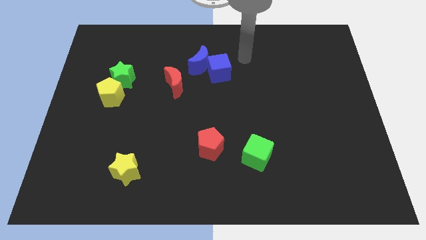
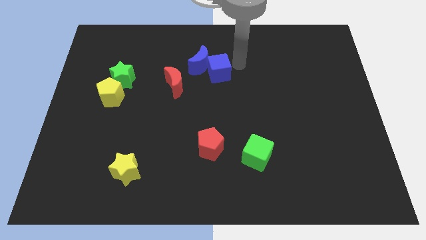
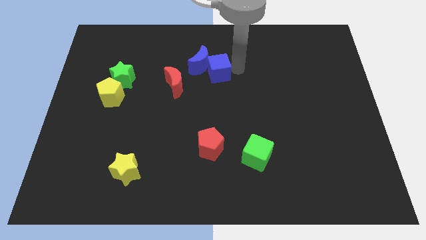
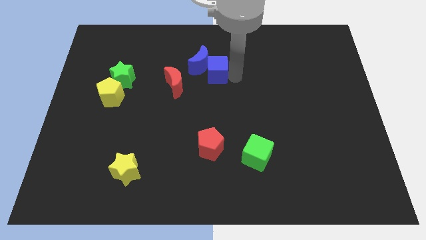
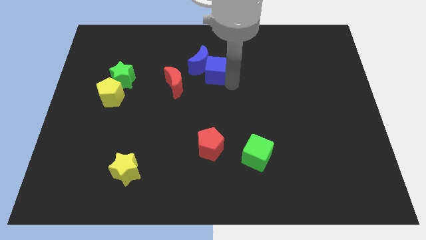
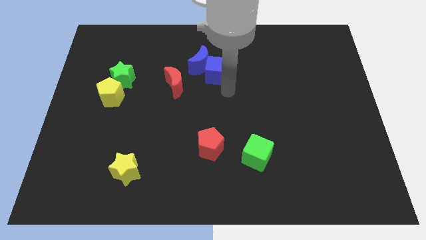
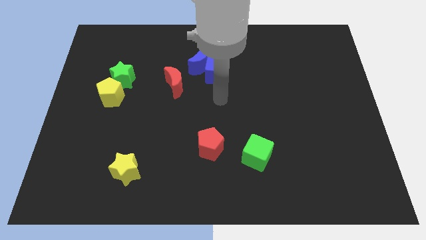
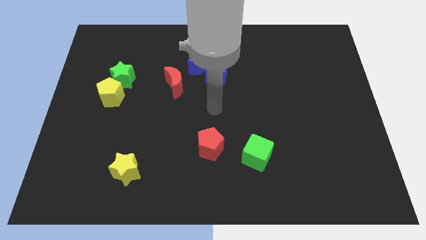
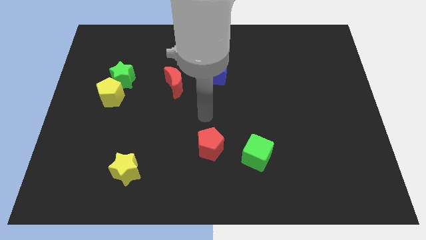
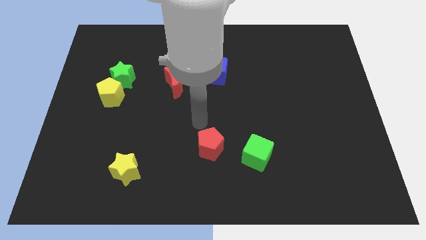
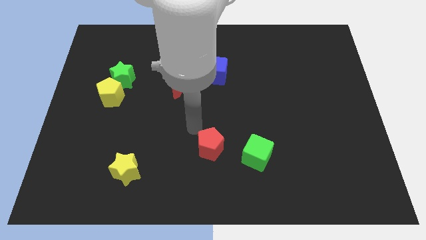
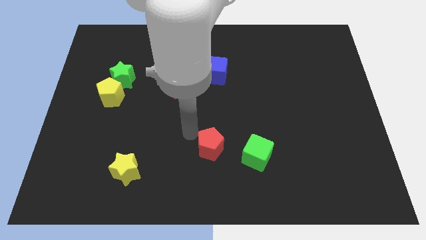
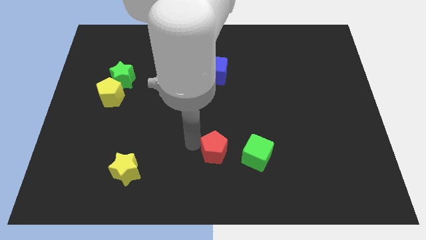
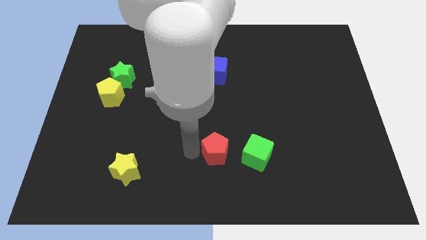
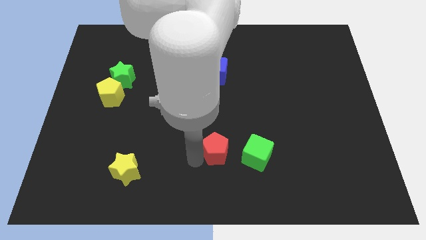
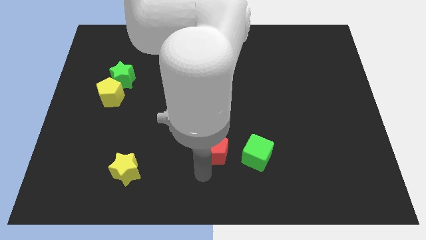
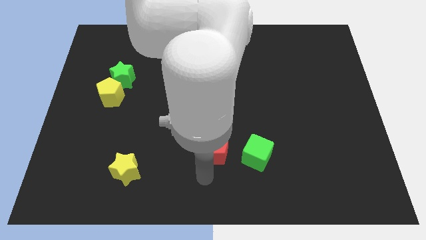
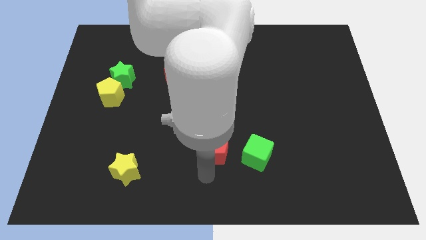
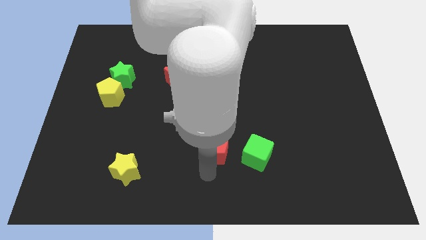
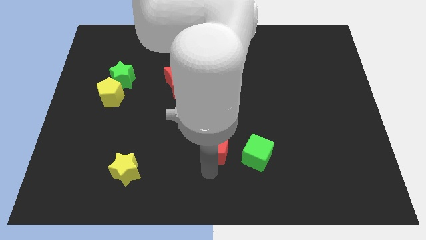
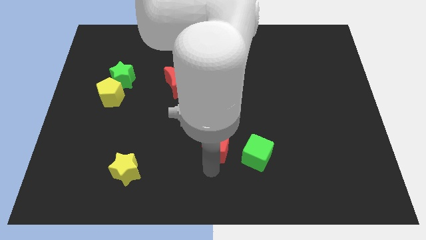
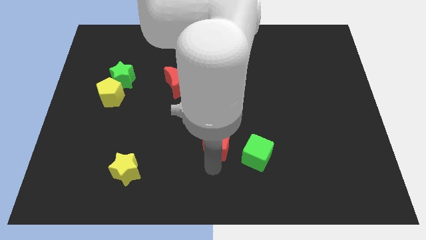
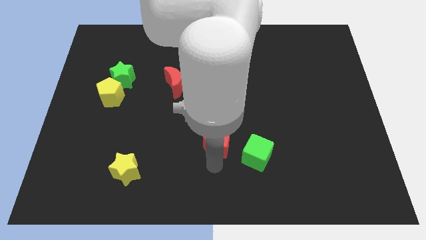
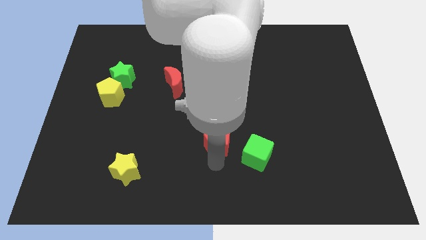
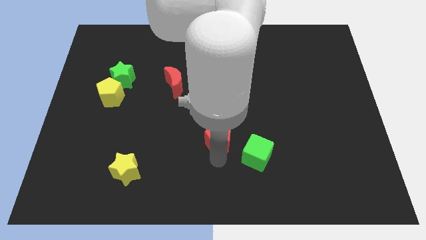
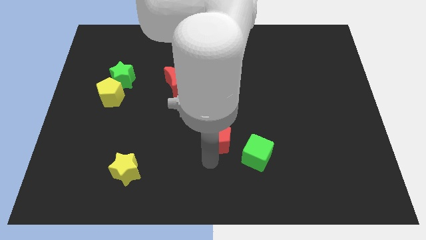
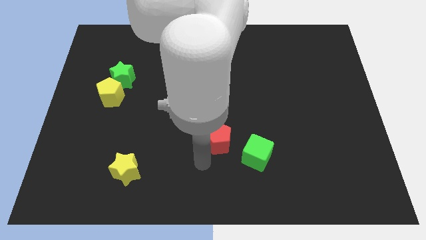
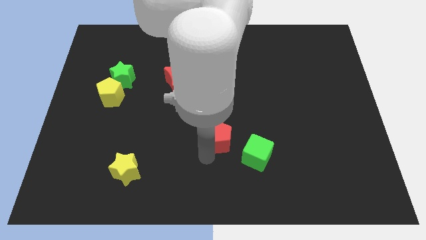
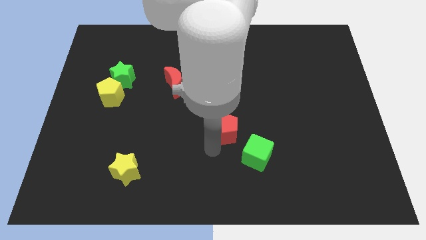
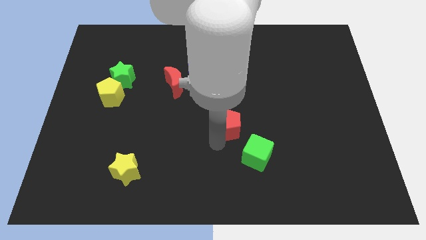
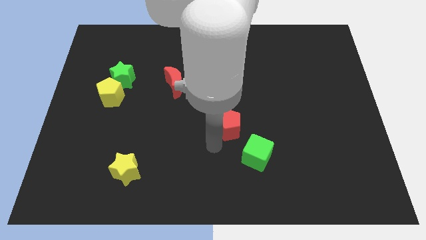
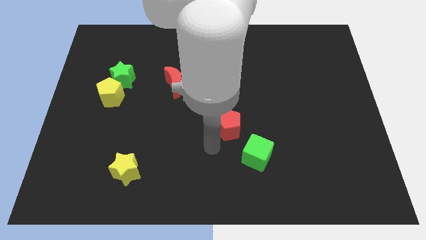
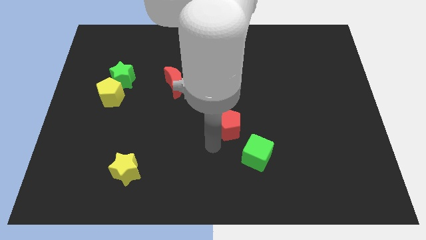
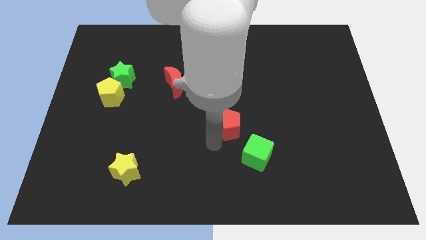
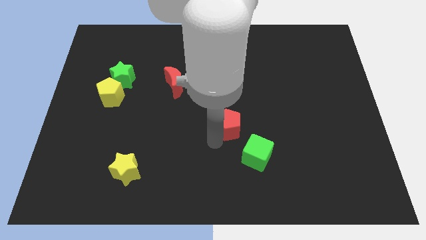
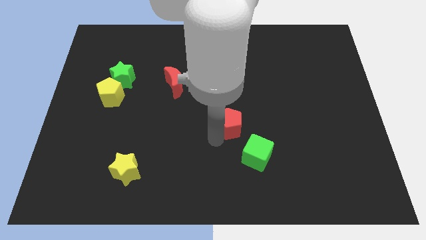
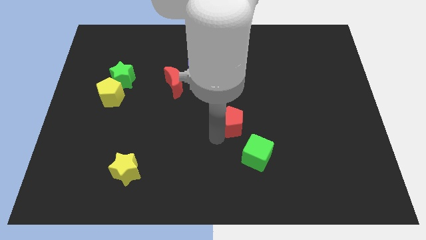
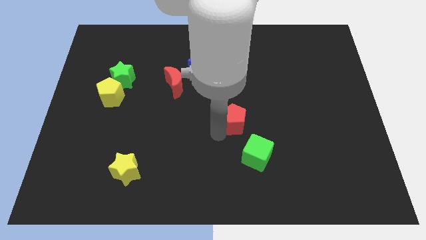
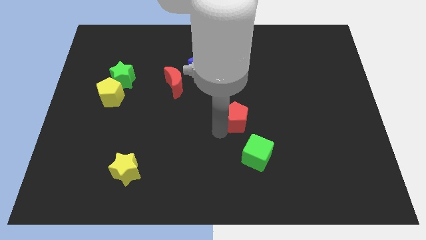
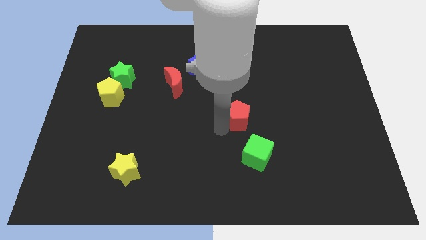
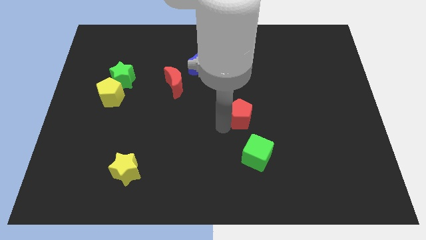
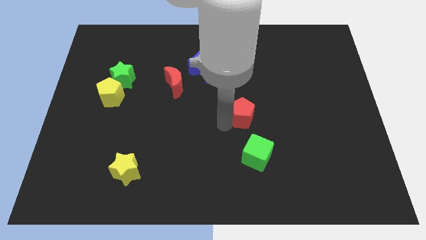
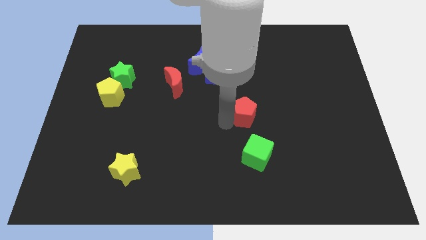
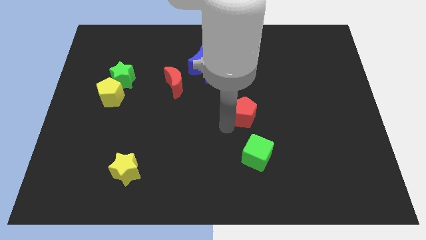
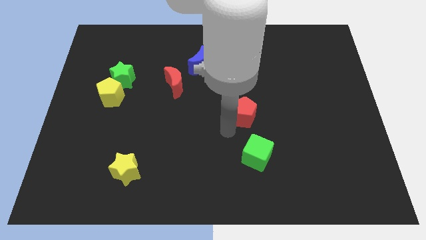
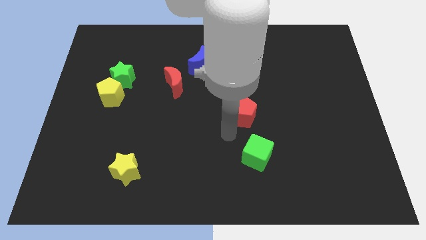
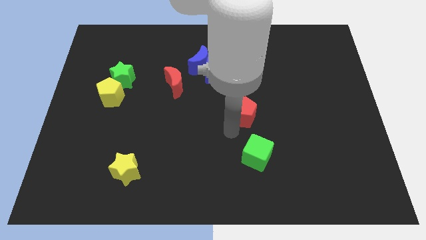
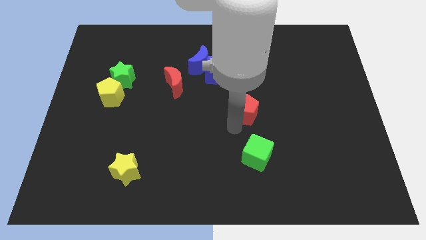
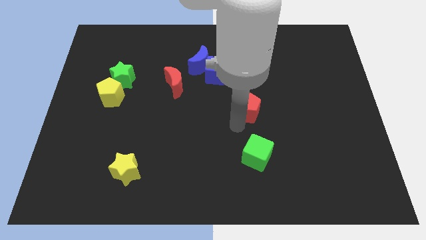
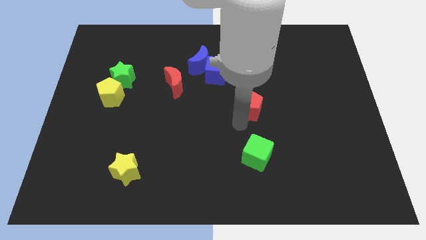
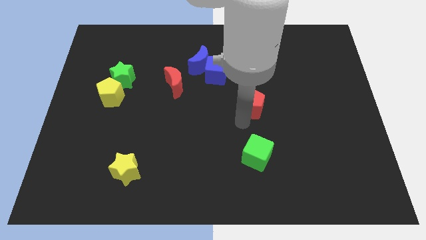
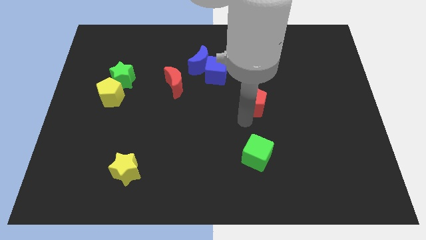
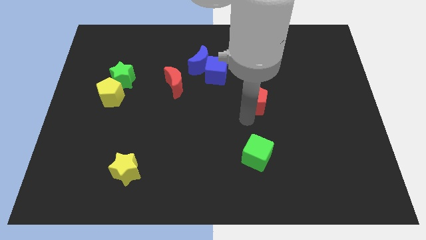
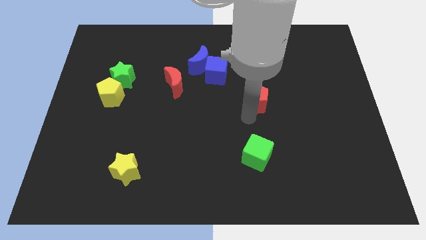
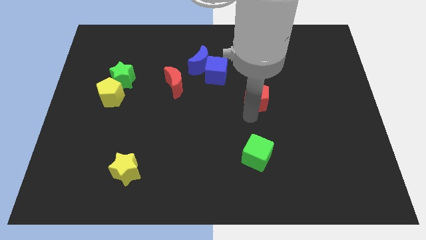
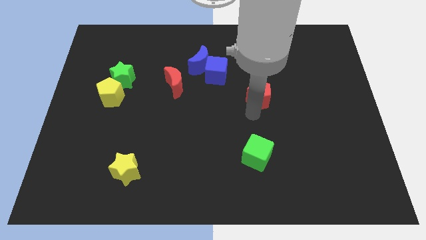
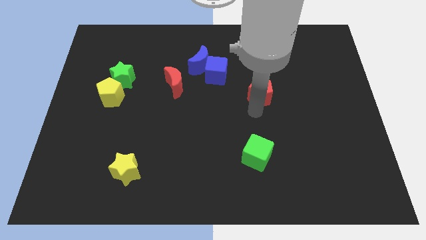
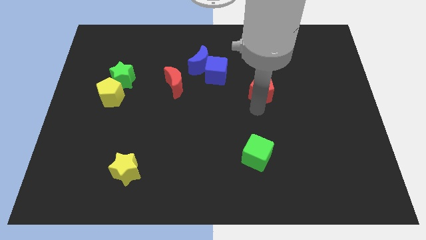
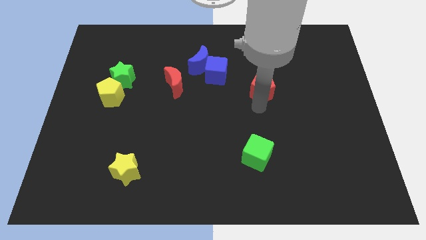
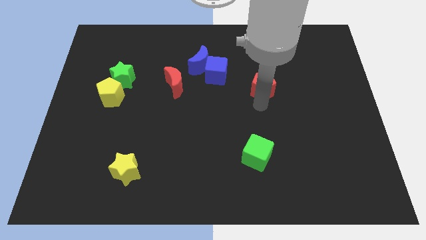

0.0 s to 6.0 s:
slide the red pentagon just right of the blue cube
